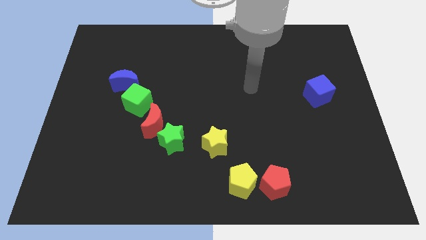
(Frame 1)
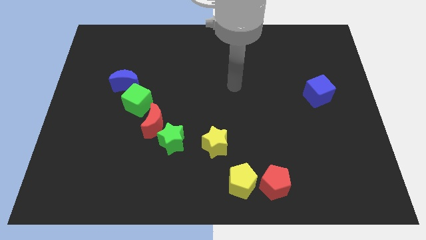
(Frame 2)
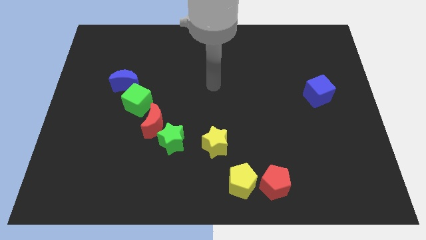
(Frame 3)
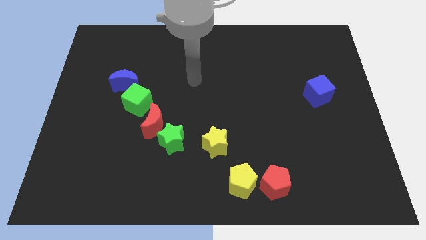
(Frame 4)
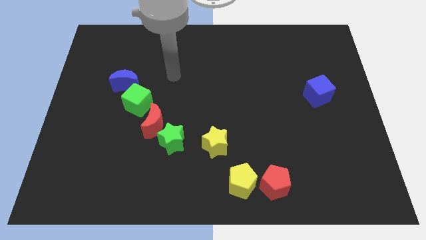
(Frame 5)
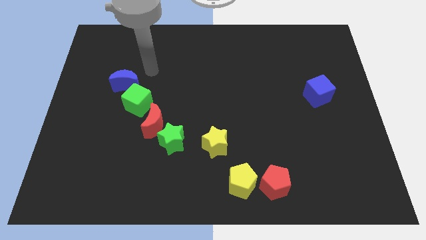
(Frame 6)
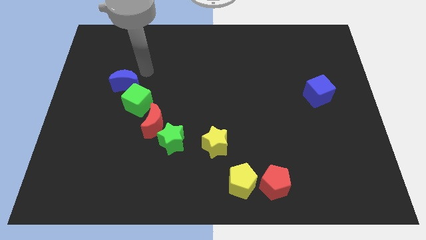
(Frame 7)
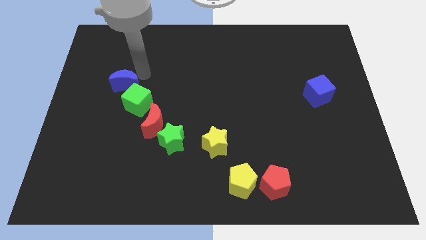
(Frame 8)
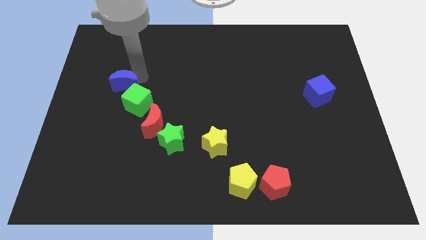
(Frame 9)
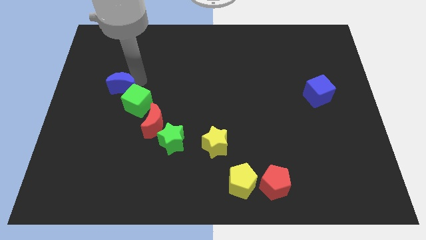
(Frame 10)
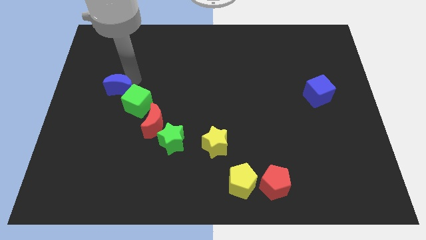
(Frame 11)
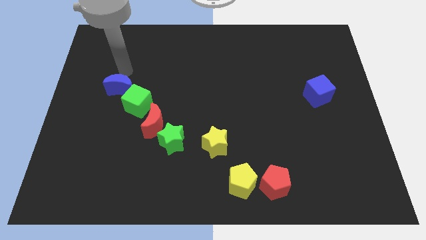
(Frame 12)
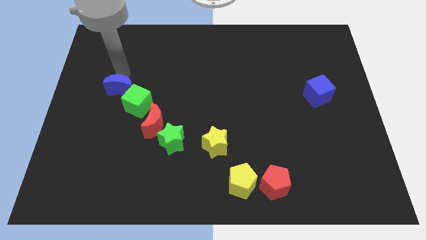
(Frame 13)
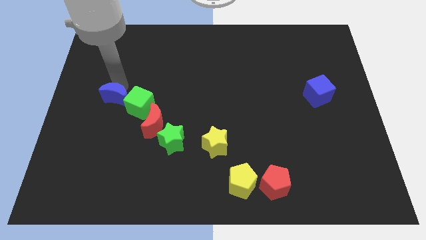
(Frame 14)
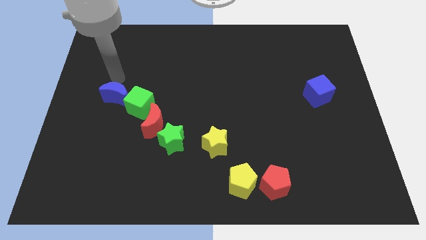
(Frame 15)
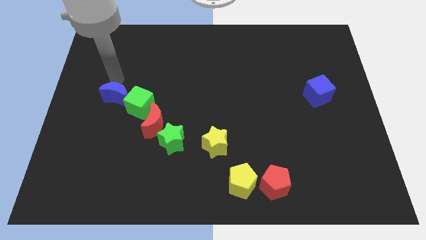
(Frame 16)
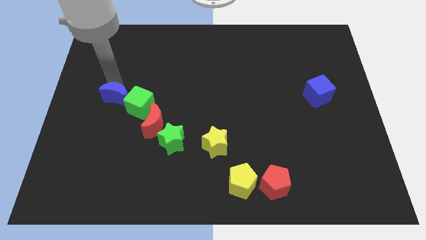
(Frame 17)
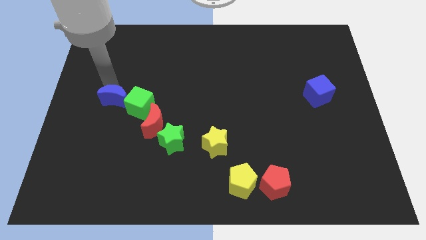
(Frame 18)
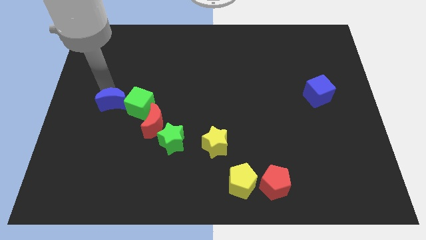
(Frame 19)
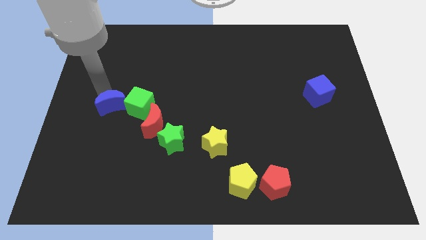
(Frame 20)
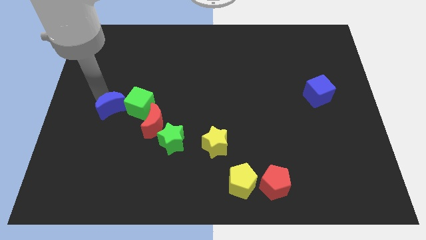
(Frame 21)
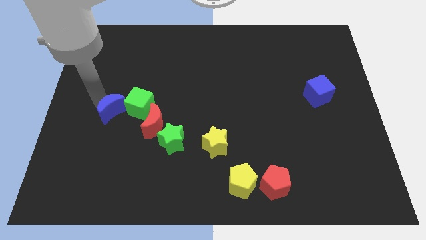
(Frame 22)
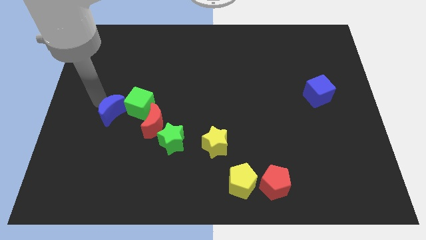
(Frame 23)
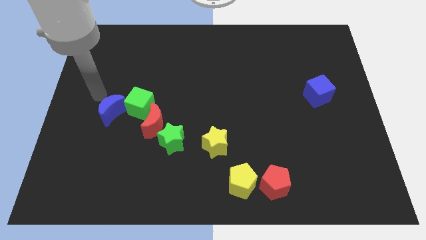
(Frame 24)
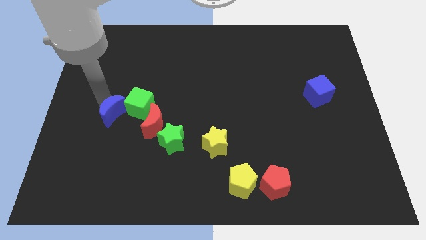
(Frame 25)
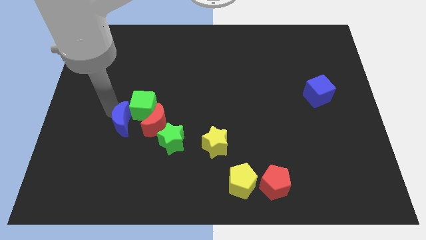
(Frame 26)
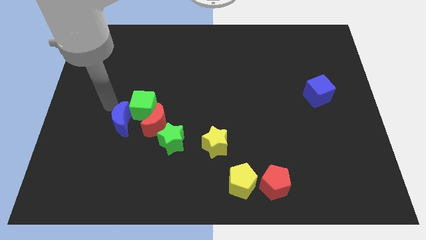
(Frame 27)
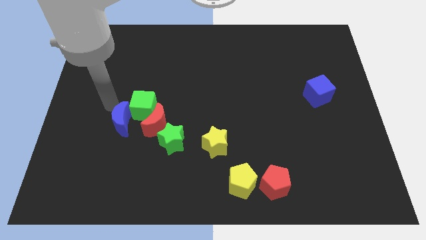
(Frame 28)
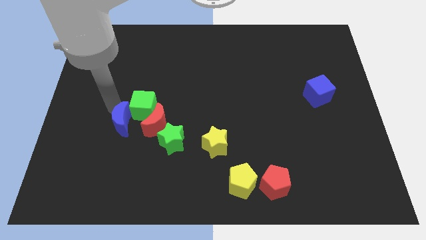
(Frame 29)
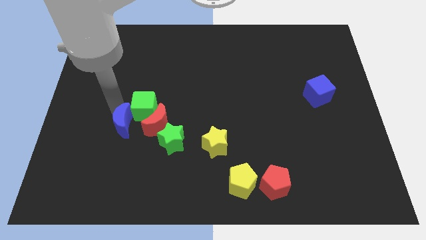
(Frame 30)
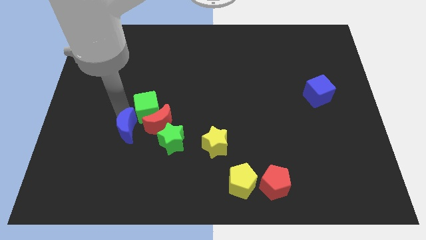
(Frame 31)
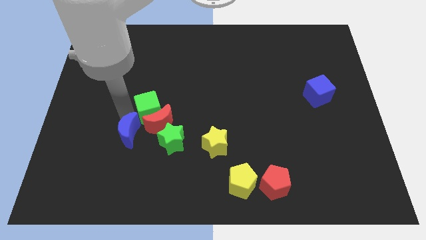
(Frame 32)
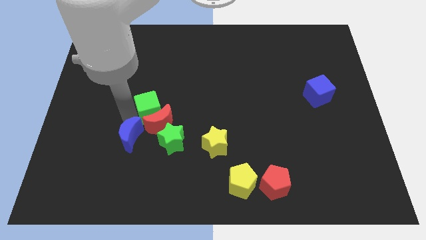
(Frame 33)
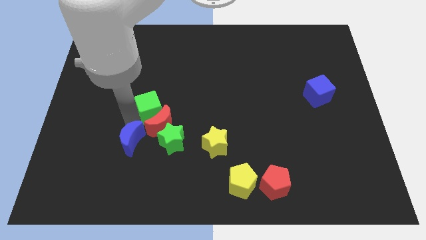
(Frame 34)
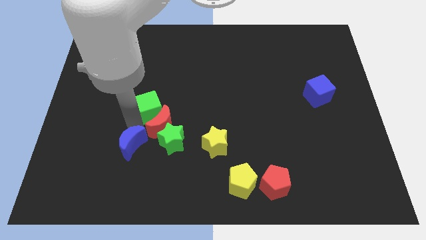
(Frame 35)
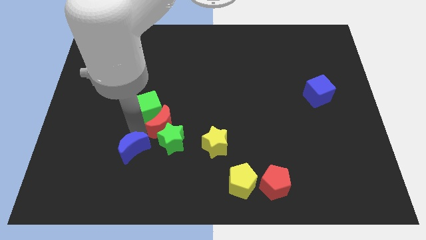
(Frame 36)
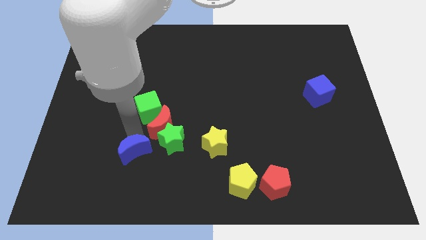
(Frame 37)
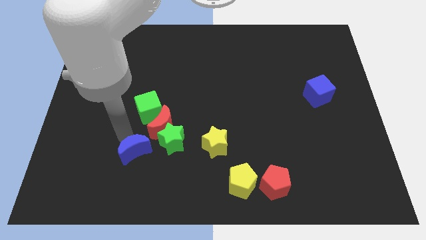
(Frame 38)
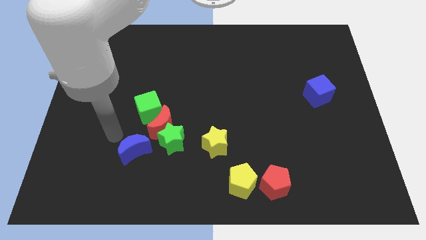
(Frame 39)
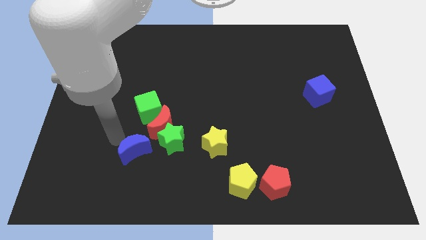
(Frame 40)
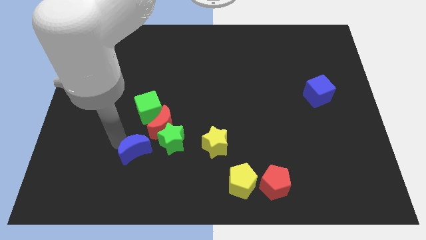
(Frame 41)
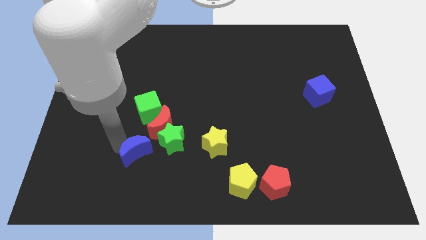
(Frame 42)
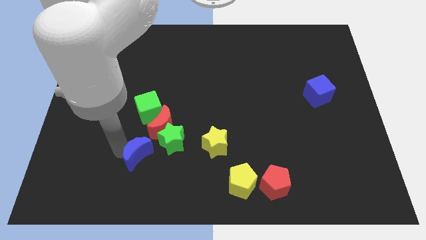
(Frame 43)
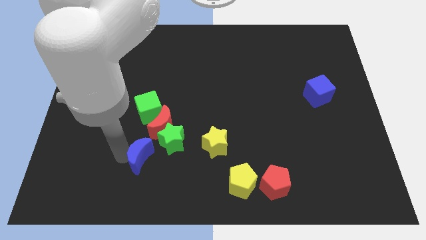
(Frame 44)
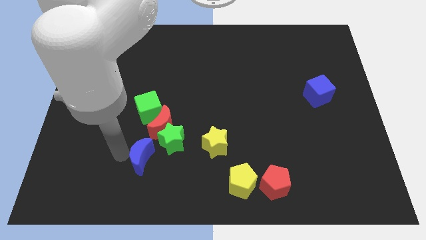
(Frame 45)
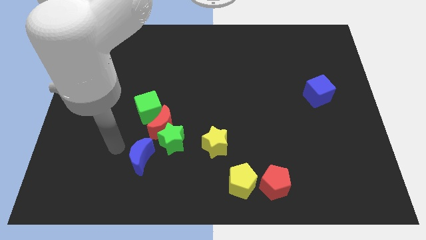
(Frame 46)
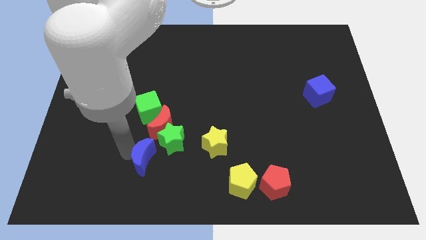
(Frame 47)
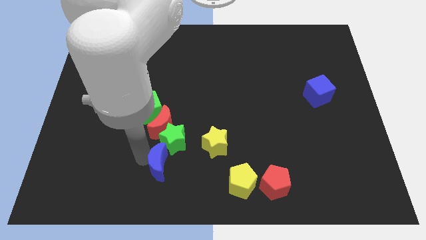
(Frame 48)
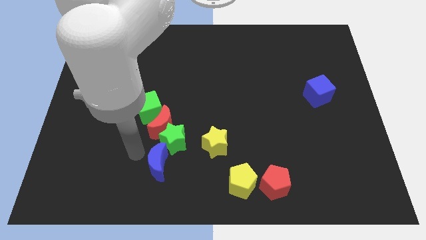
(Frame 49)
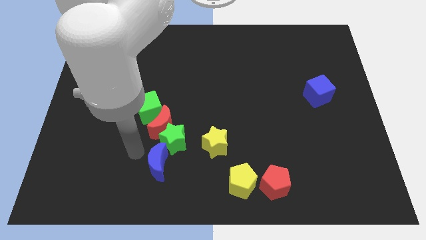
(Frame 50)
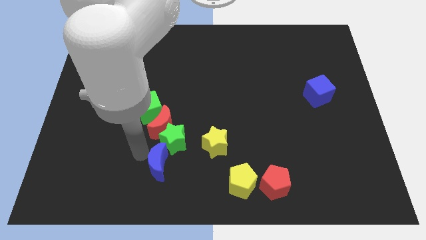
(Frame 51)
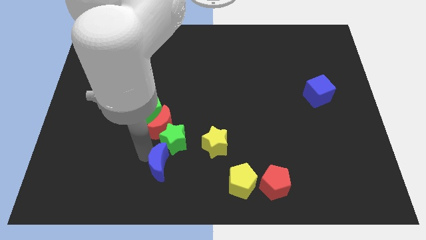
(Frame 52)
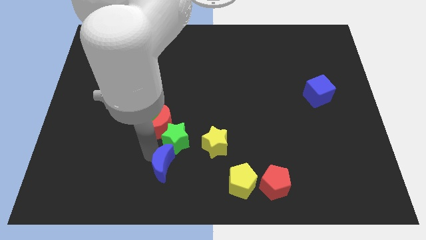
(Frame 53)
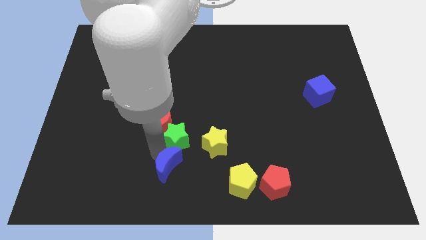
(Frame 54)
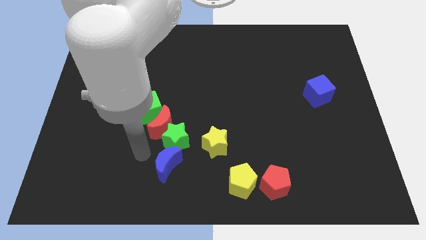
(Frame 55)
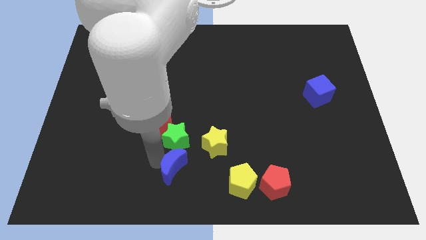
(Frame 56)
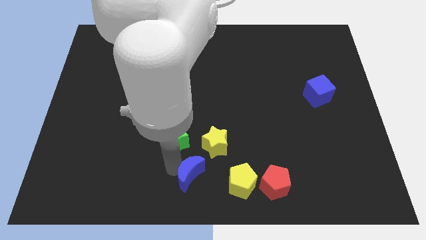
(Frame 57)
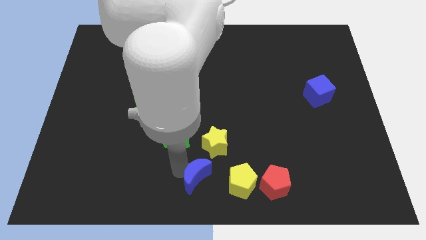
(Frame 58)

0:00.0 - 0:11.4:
slide the blue moon to the left of the red pentagon
